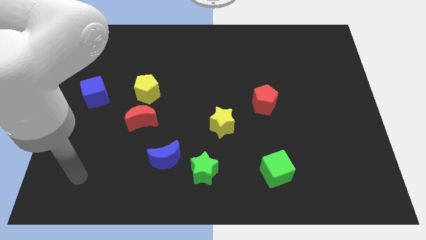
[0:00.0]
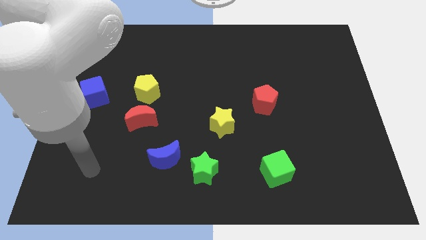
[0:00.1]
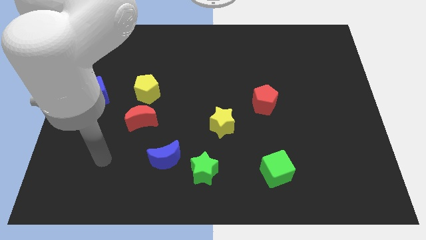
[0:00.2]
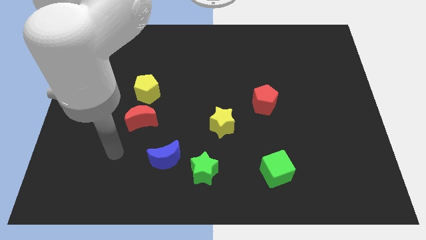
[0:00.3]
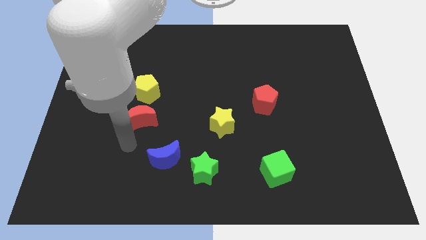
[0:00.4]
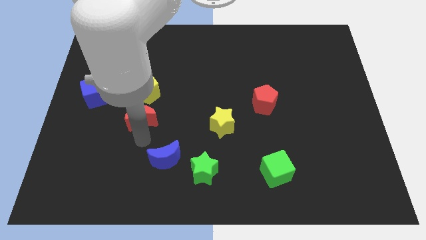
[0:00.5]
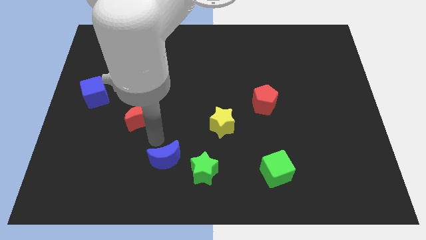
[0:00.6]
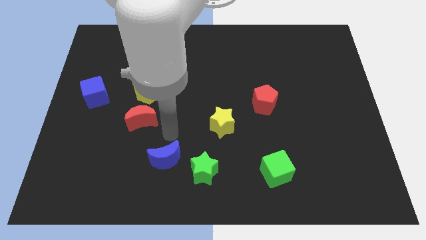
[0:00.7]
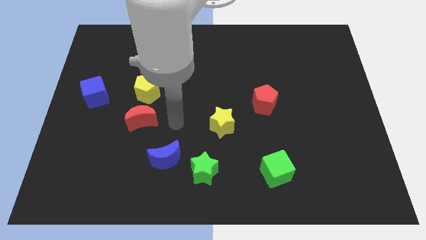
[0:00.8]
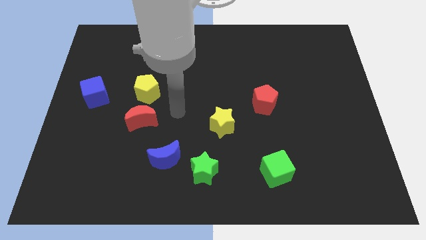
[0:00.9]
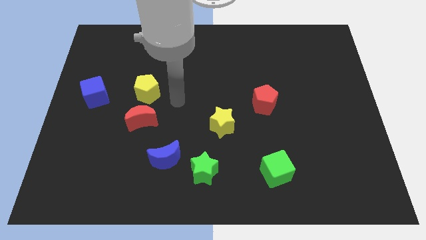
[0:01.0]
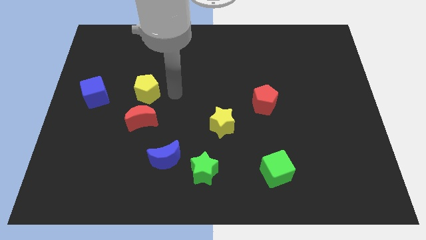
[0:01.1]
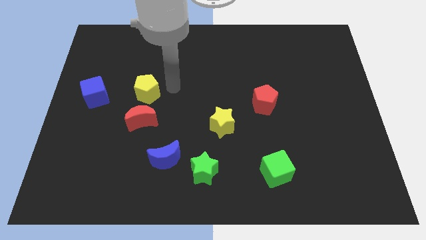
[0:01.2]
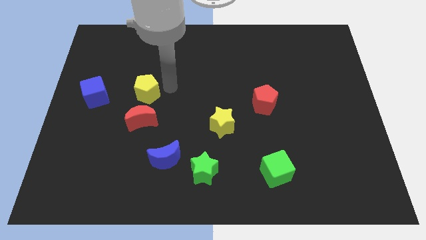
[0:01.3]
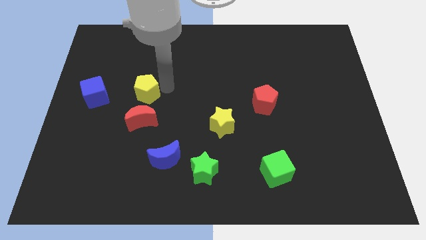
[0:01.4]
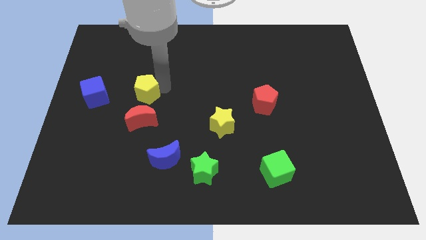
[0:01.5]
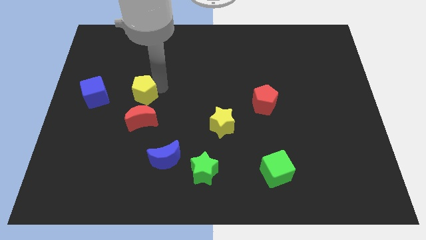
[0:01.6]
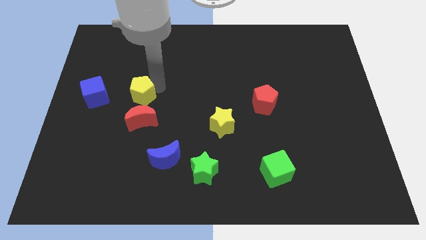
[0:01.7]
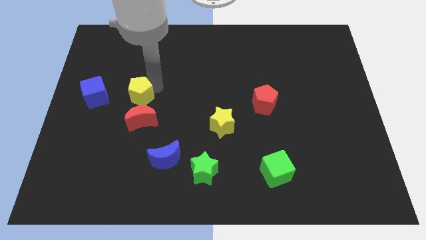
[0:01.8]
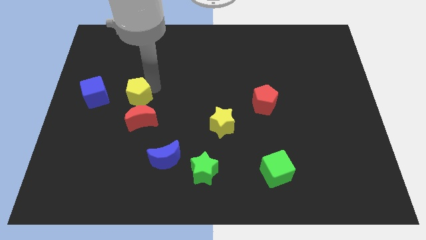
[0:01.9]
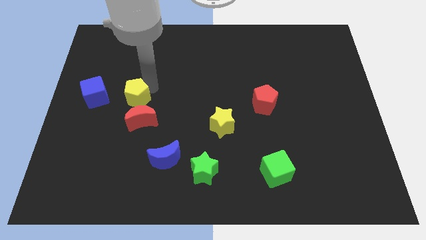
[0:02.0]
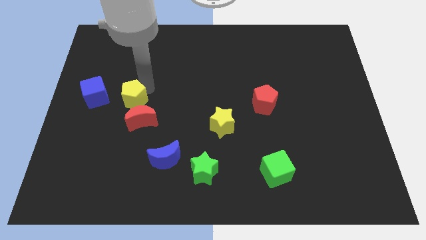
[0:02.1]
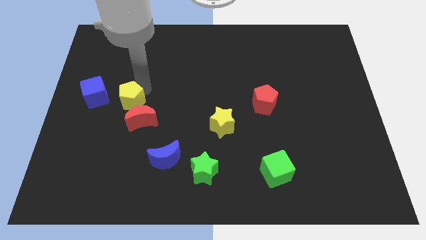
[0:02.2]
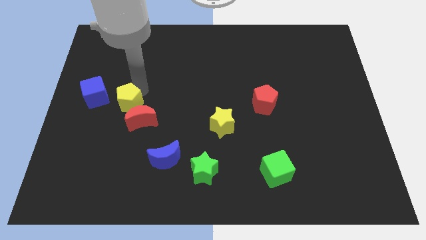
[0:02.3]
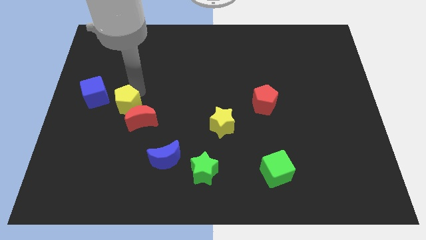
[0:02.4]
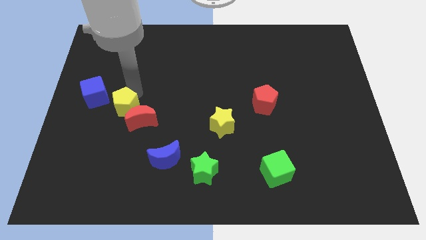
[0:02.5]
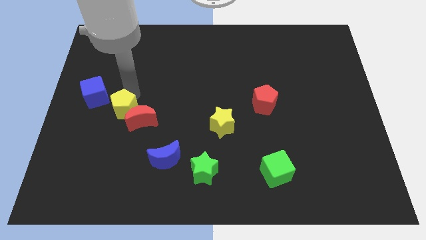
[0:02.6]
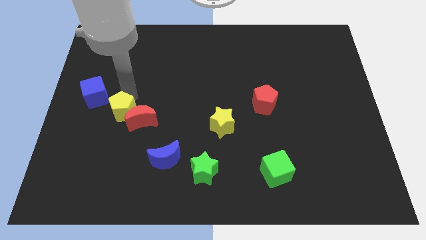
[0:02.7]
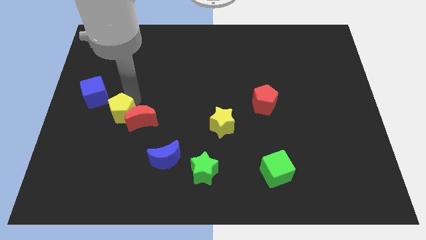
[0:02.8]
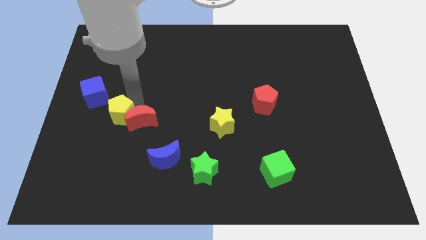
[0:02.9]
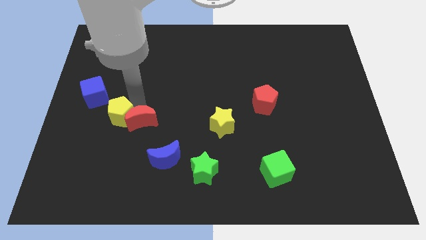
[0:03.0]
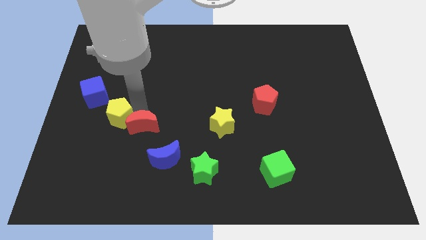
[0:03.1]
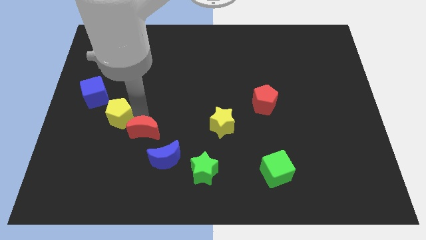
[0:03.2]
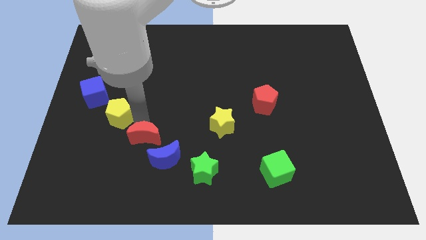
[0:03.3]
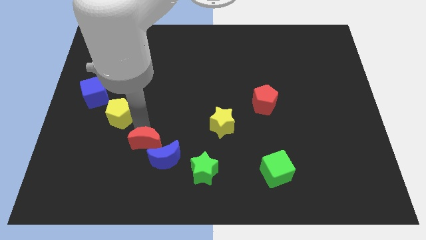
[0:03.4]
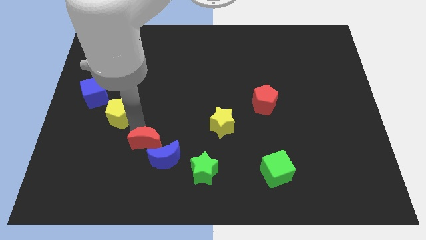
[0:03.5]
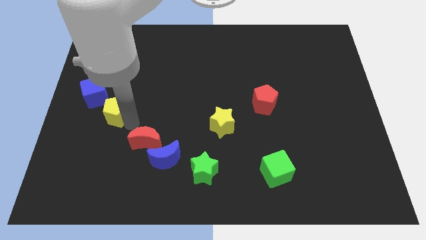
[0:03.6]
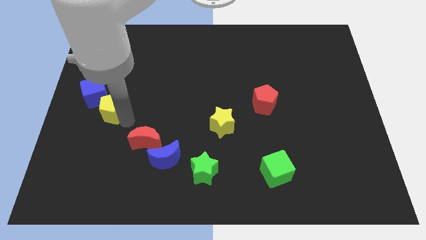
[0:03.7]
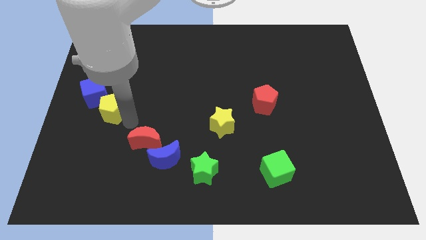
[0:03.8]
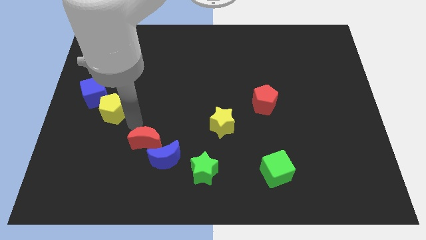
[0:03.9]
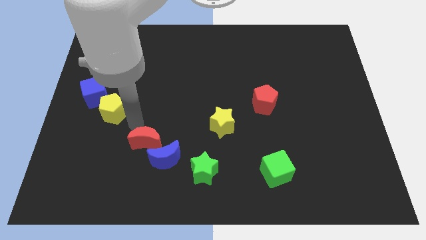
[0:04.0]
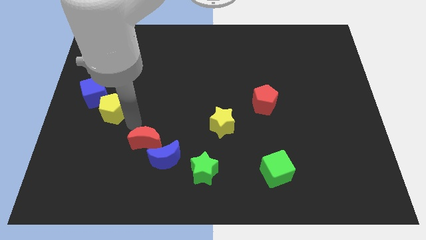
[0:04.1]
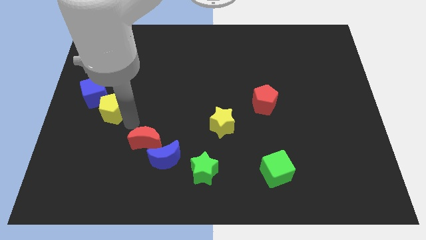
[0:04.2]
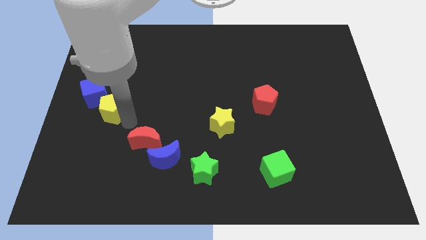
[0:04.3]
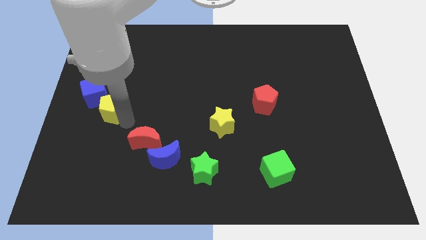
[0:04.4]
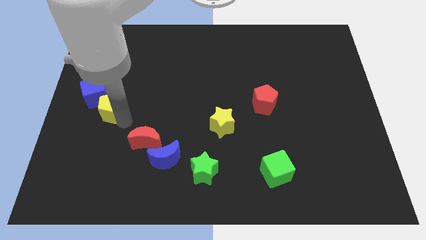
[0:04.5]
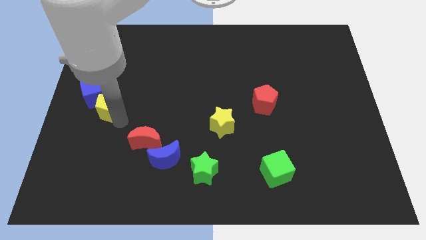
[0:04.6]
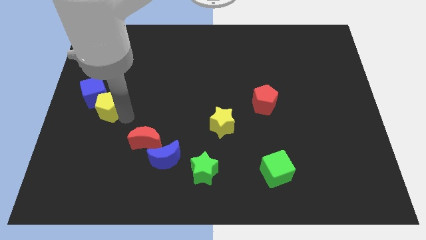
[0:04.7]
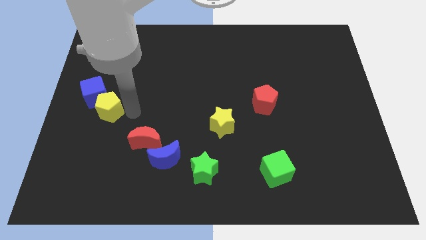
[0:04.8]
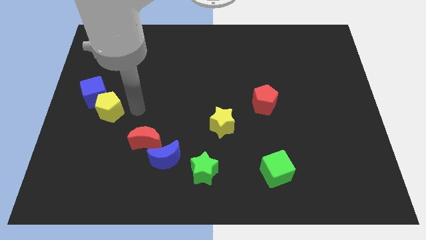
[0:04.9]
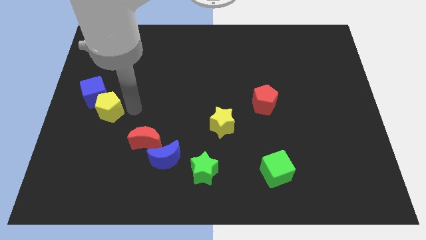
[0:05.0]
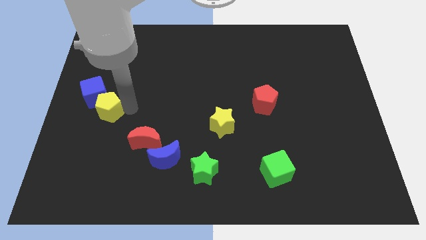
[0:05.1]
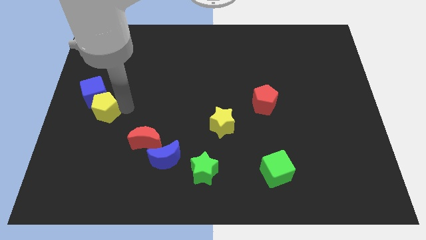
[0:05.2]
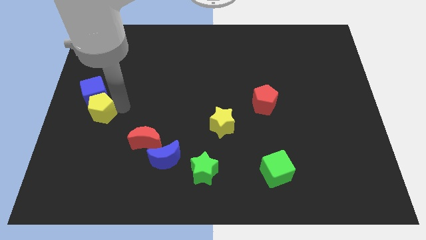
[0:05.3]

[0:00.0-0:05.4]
push the yellow pentagon to the left side

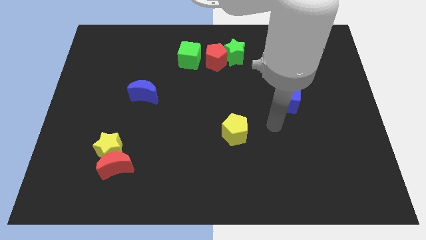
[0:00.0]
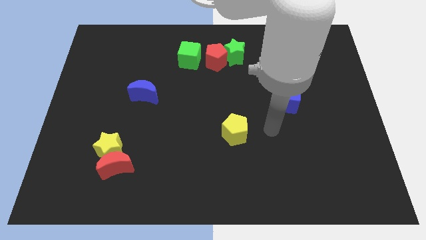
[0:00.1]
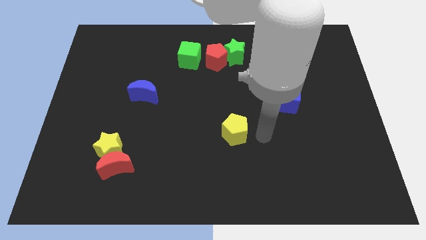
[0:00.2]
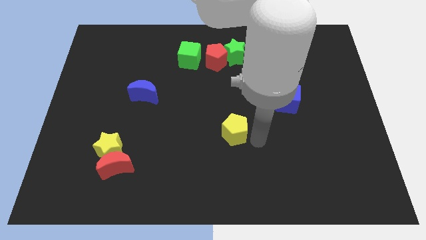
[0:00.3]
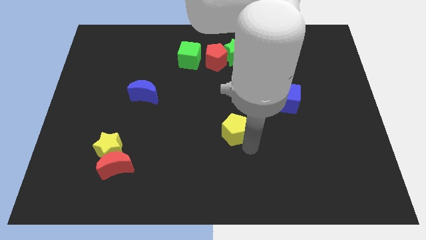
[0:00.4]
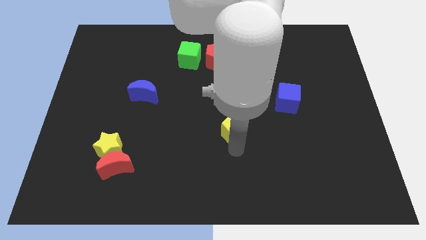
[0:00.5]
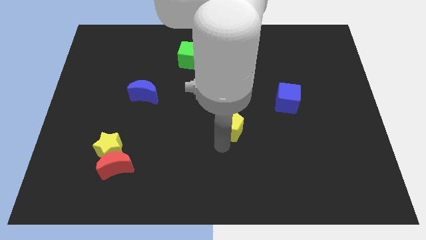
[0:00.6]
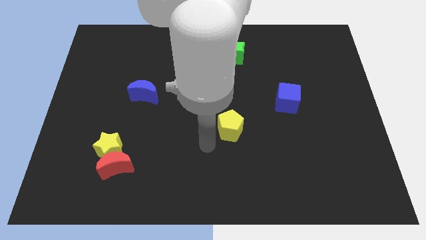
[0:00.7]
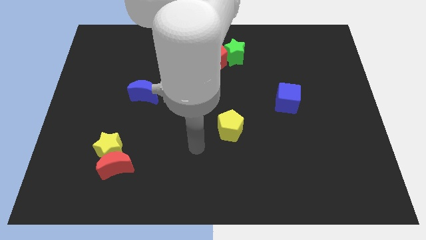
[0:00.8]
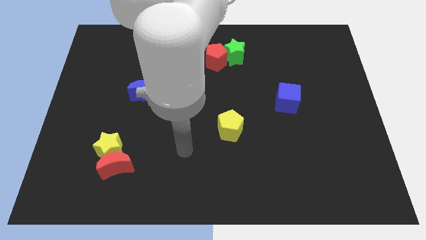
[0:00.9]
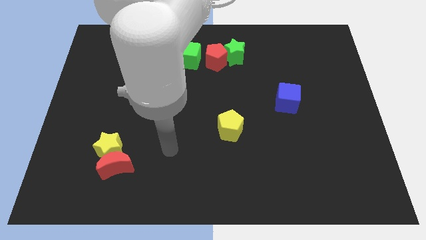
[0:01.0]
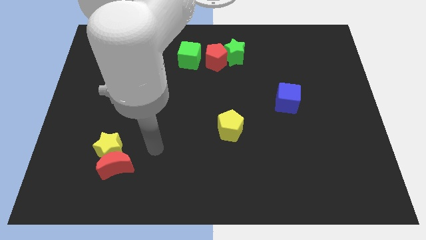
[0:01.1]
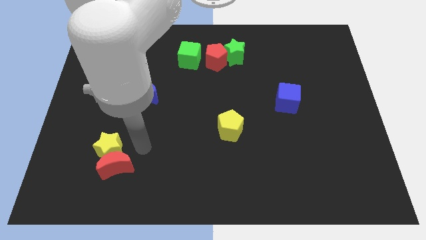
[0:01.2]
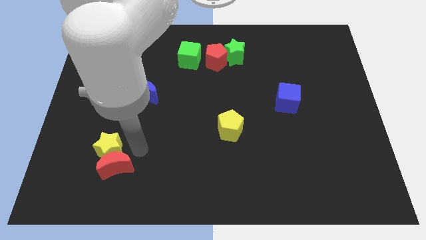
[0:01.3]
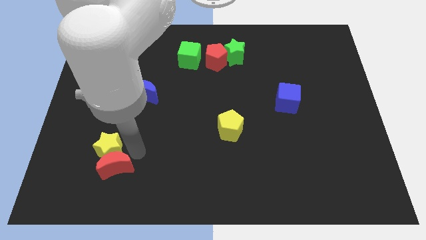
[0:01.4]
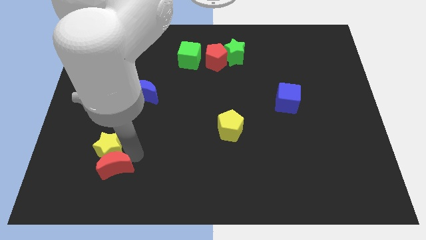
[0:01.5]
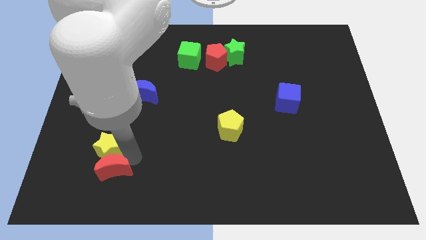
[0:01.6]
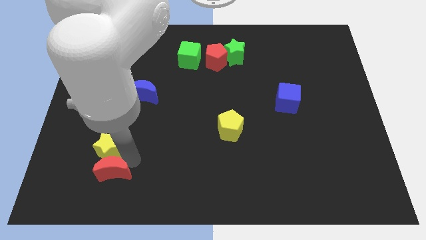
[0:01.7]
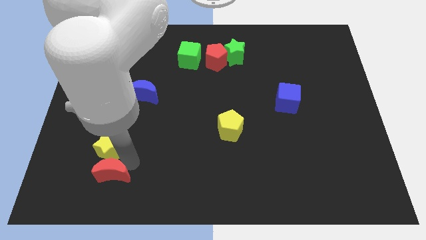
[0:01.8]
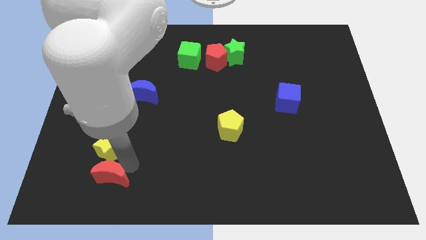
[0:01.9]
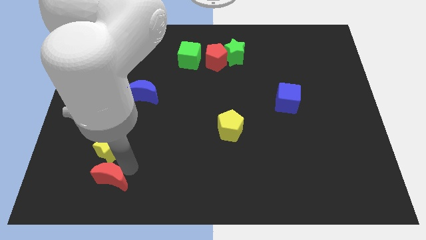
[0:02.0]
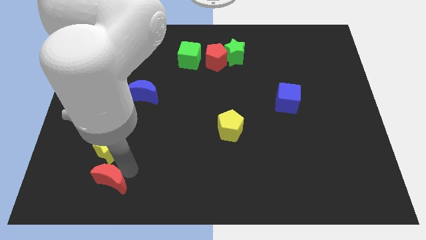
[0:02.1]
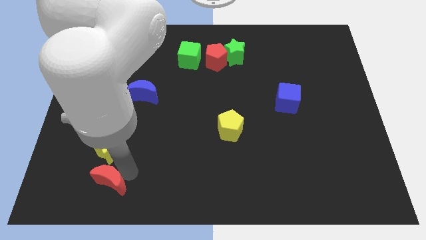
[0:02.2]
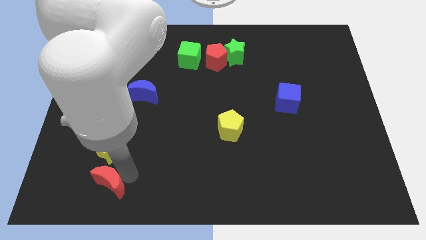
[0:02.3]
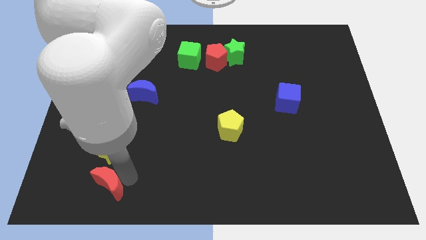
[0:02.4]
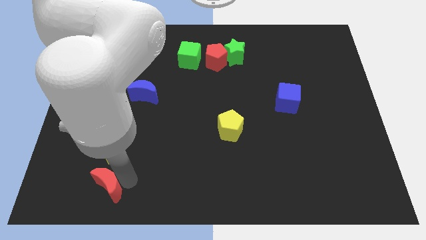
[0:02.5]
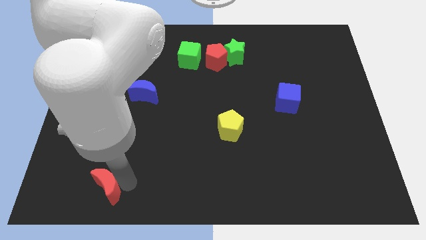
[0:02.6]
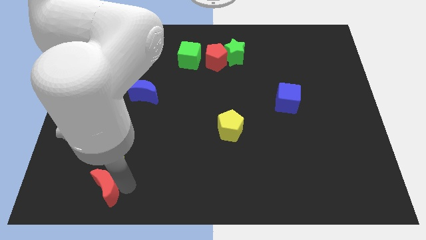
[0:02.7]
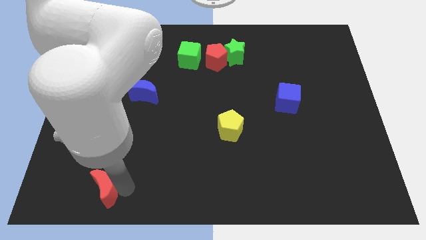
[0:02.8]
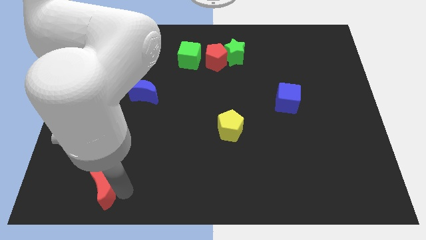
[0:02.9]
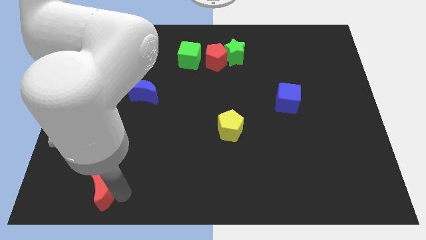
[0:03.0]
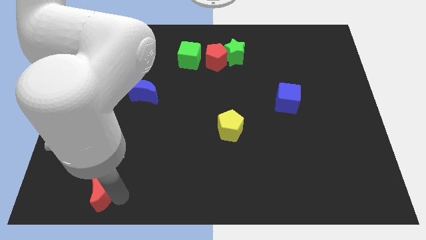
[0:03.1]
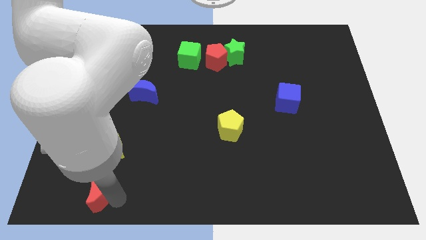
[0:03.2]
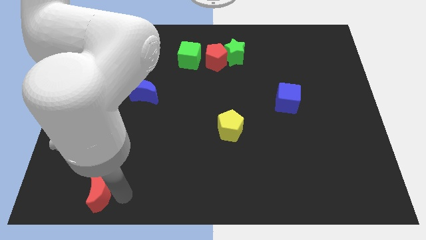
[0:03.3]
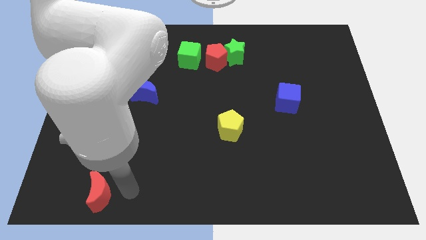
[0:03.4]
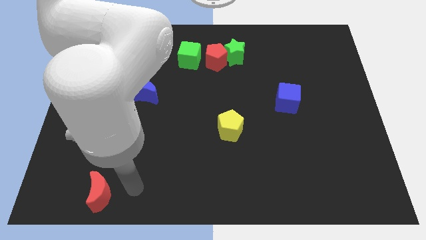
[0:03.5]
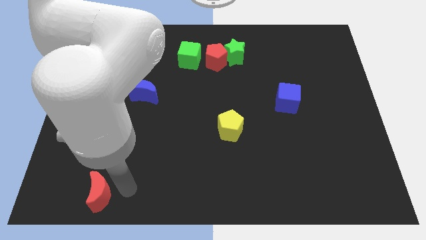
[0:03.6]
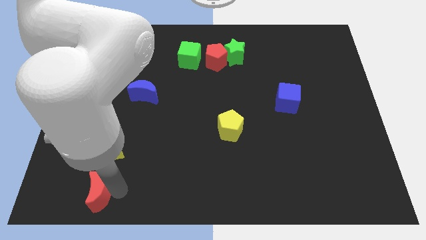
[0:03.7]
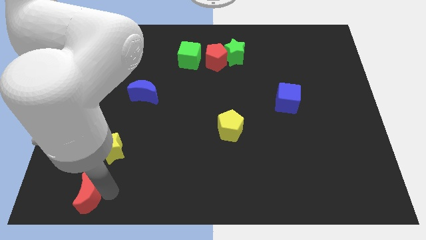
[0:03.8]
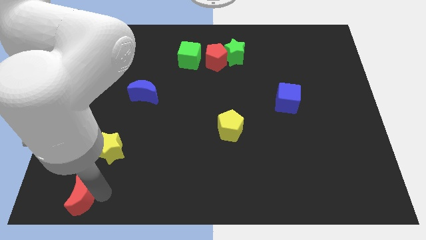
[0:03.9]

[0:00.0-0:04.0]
put the red moon to the bottom left of the board
